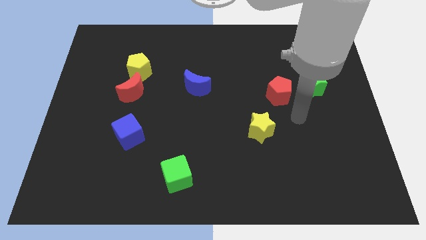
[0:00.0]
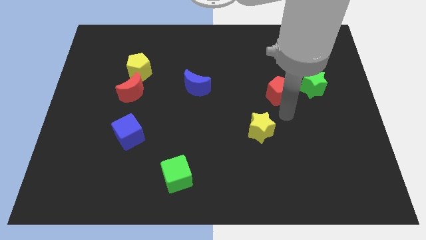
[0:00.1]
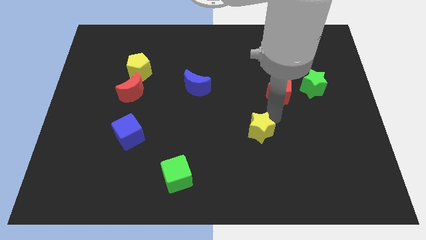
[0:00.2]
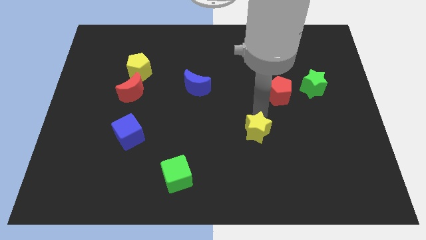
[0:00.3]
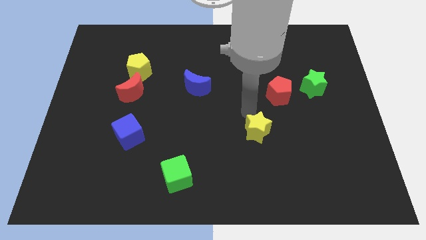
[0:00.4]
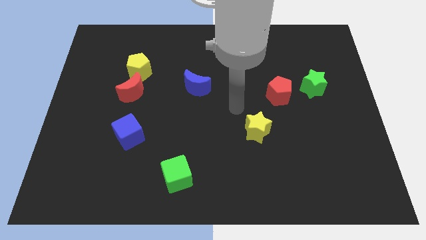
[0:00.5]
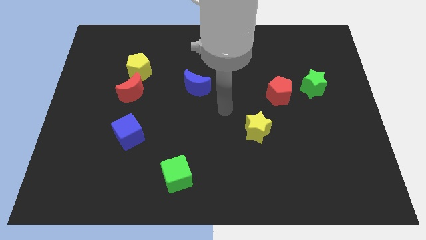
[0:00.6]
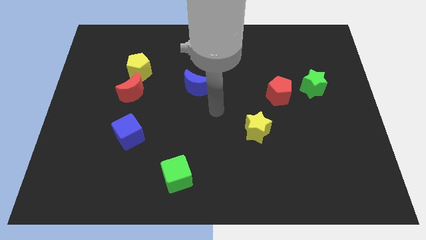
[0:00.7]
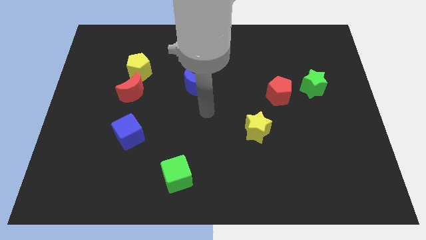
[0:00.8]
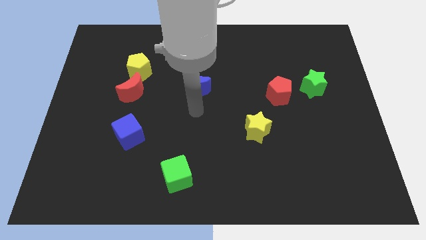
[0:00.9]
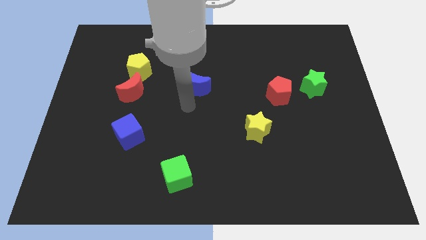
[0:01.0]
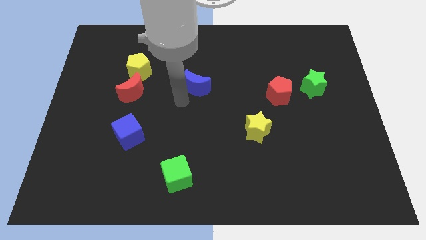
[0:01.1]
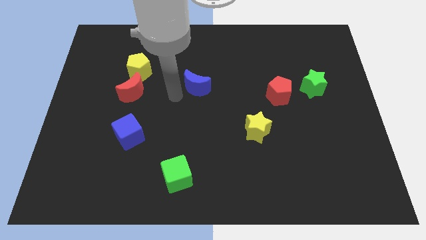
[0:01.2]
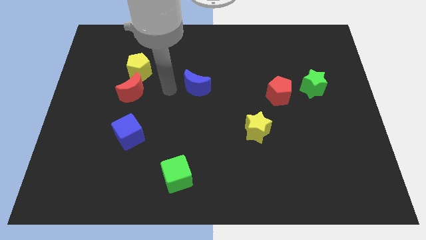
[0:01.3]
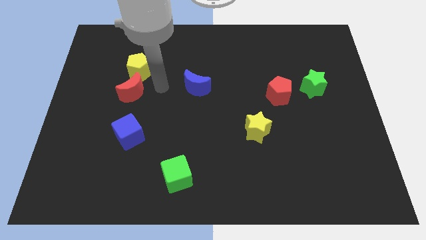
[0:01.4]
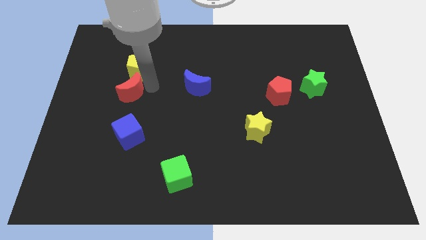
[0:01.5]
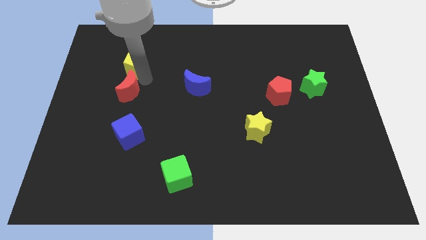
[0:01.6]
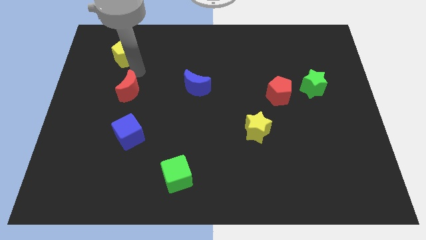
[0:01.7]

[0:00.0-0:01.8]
move the red moon away from the yellow pentagon

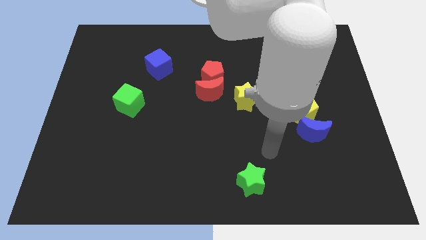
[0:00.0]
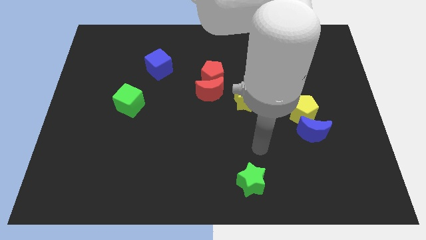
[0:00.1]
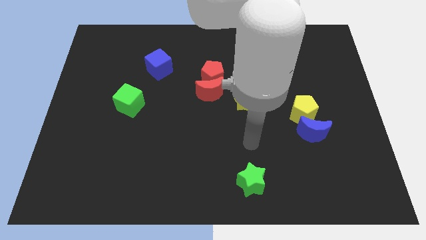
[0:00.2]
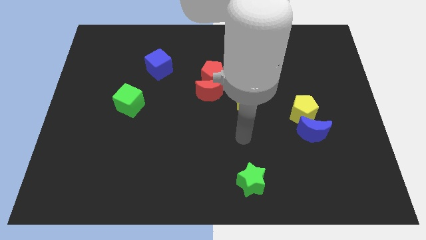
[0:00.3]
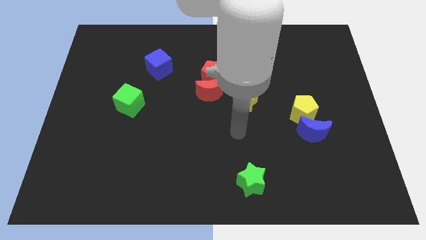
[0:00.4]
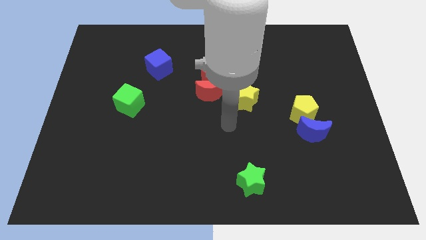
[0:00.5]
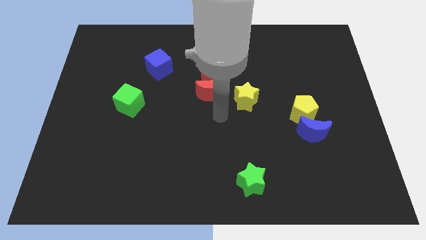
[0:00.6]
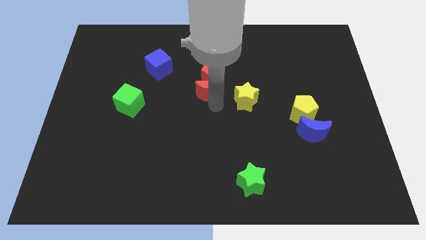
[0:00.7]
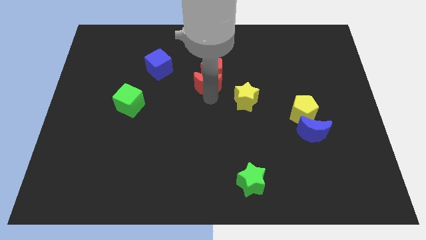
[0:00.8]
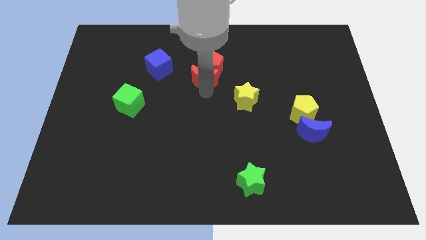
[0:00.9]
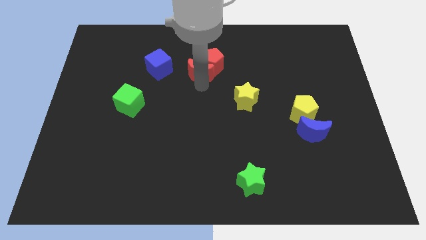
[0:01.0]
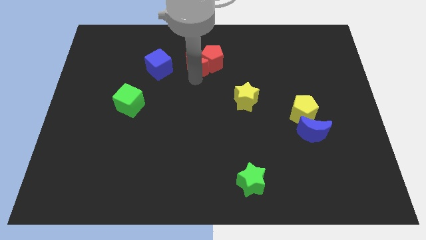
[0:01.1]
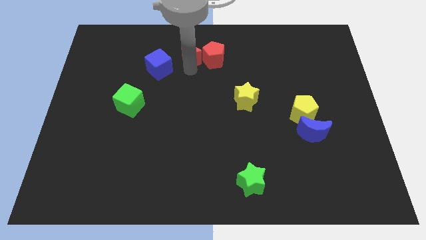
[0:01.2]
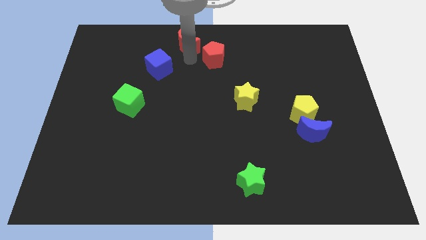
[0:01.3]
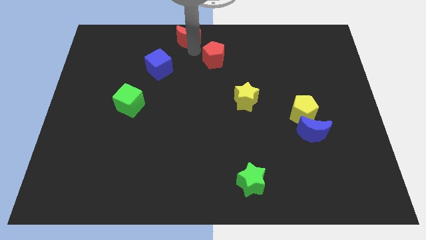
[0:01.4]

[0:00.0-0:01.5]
separate the red pentagon from the red moon

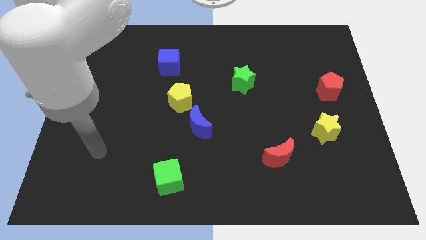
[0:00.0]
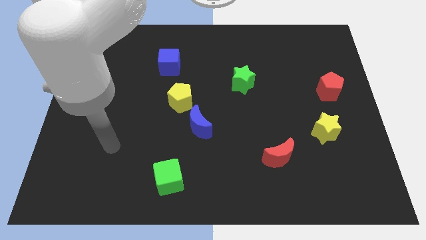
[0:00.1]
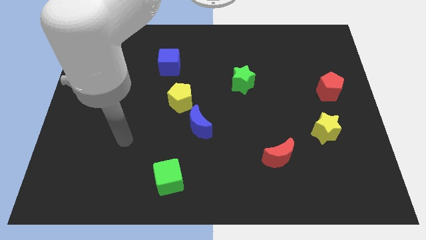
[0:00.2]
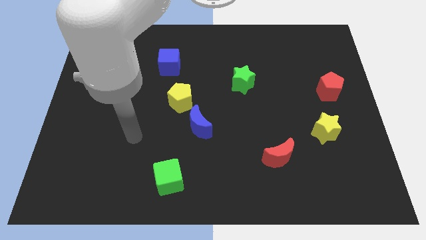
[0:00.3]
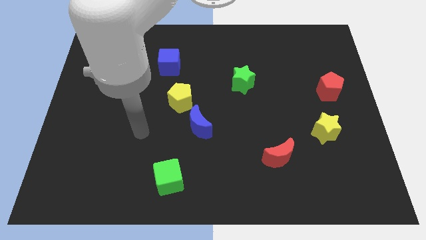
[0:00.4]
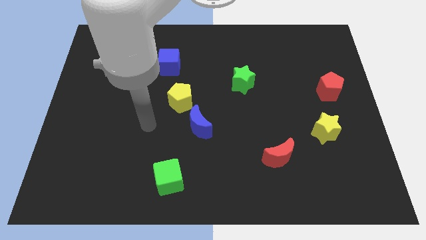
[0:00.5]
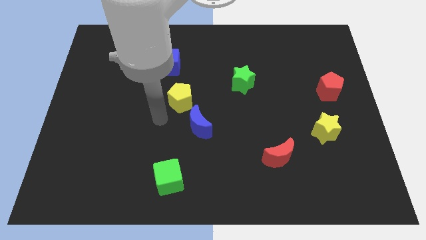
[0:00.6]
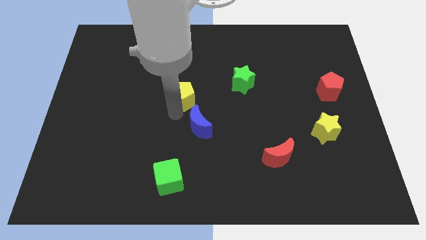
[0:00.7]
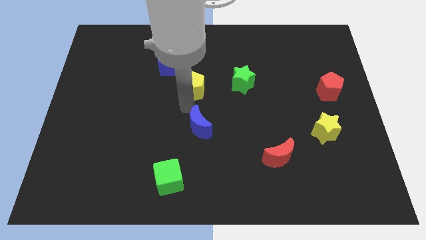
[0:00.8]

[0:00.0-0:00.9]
pull the blue moon apart from the yellow pentagon

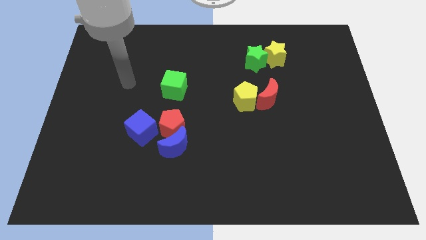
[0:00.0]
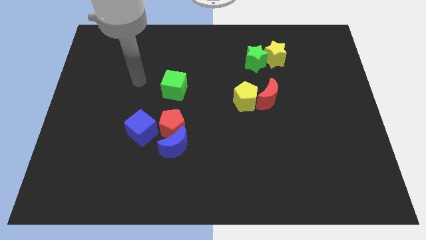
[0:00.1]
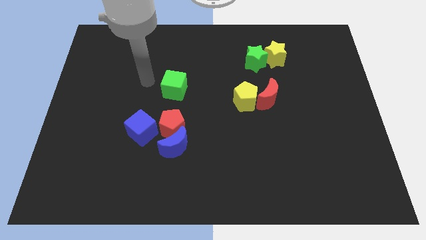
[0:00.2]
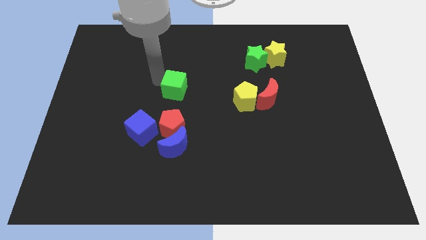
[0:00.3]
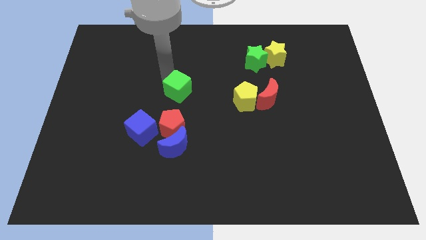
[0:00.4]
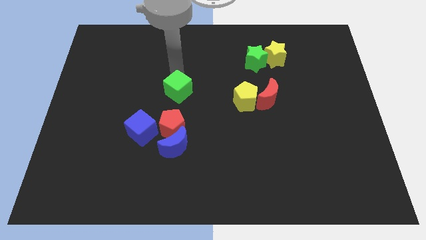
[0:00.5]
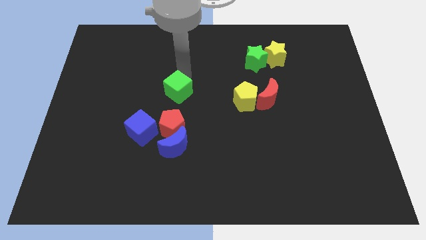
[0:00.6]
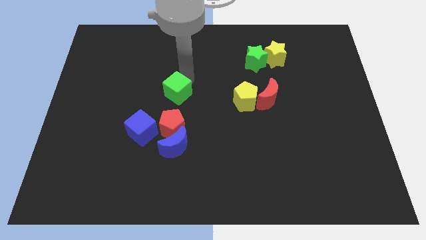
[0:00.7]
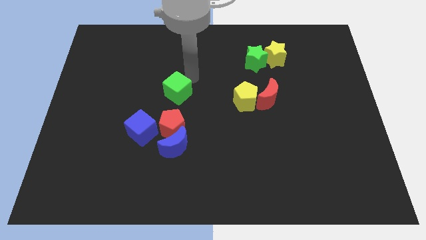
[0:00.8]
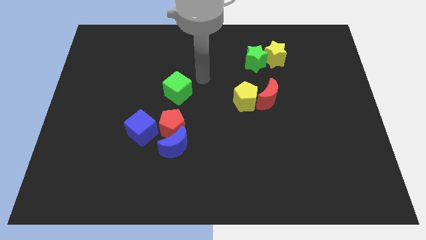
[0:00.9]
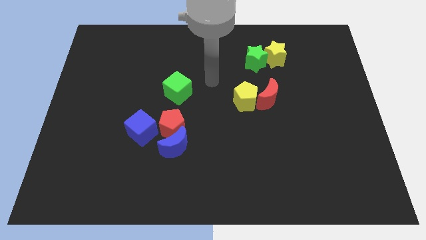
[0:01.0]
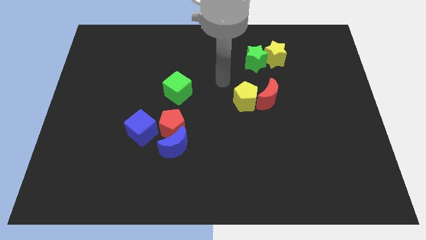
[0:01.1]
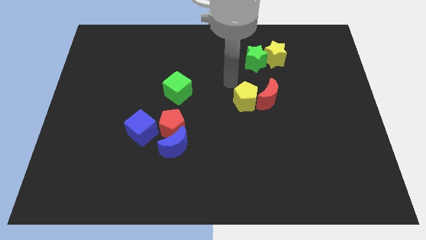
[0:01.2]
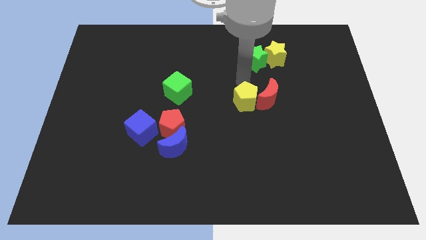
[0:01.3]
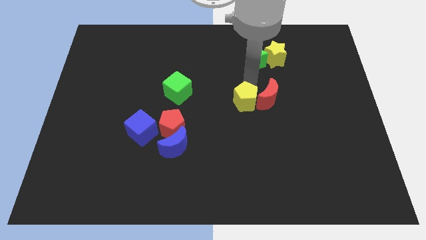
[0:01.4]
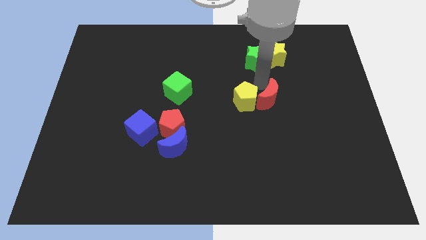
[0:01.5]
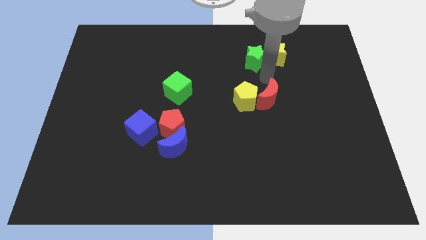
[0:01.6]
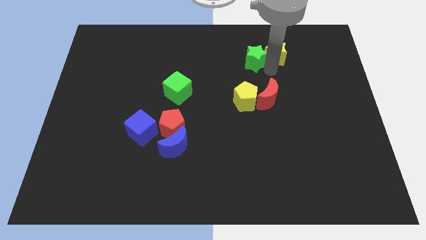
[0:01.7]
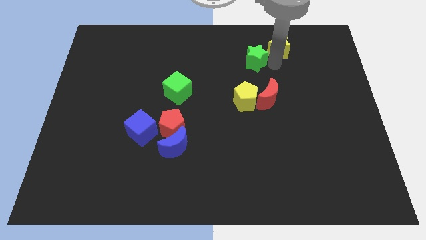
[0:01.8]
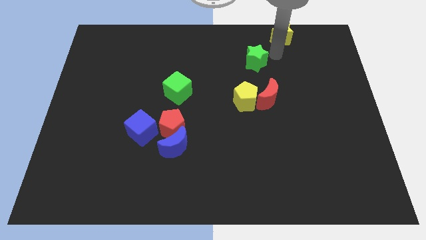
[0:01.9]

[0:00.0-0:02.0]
pull the green star apart from the yellow star

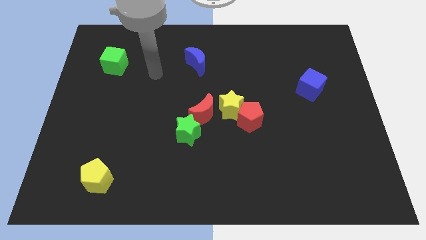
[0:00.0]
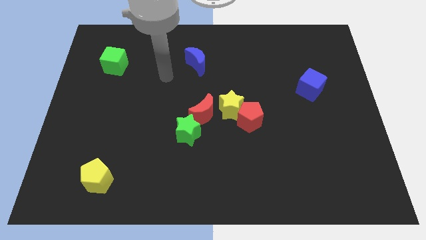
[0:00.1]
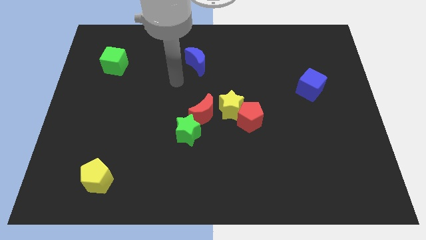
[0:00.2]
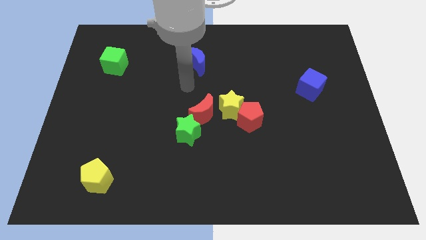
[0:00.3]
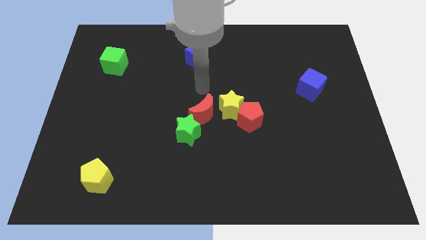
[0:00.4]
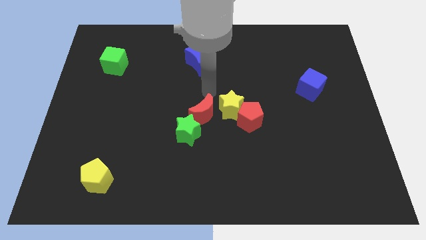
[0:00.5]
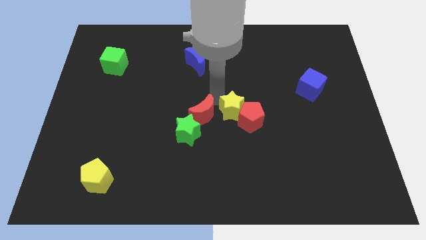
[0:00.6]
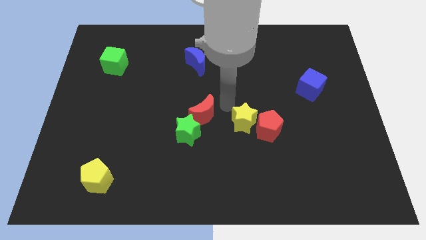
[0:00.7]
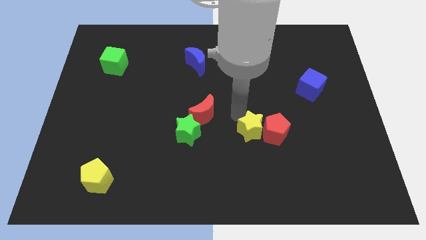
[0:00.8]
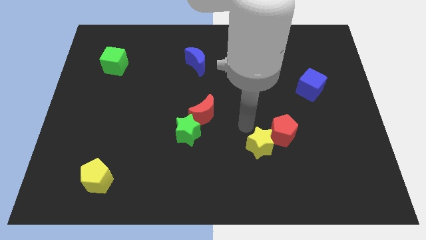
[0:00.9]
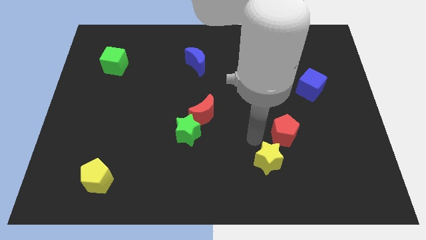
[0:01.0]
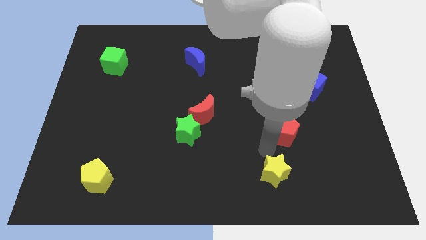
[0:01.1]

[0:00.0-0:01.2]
pull the red pentagon apart from the yellow star

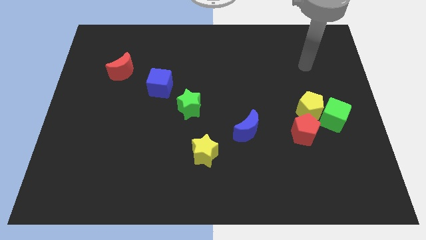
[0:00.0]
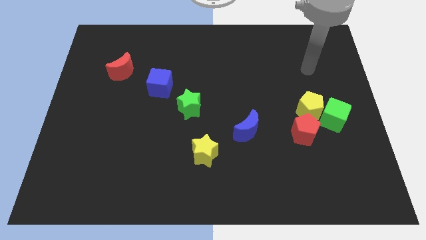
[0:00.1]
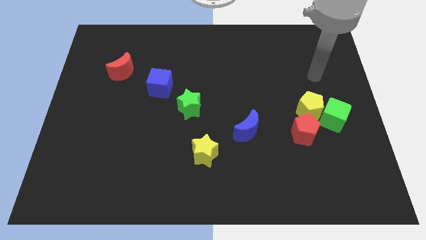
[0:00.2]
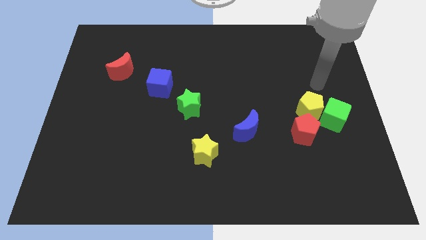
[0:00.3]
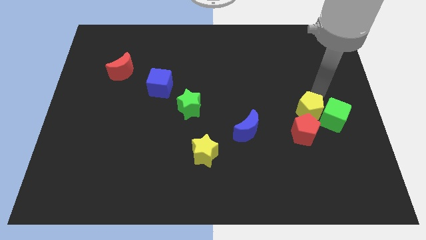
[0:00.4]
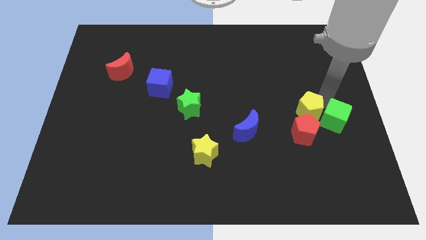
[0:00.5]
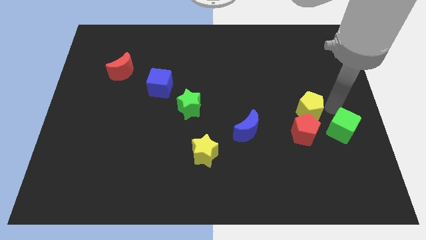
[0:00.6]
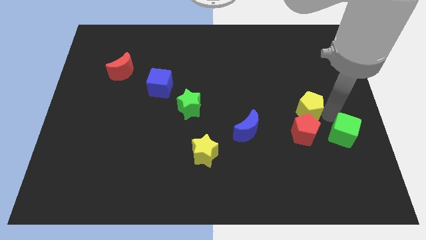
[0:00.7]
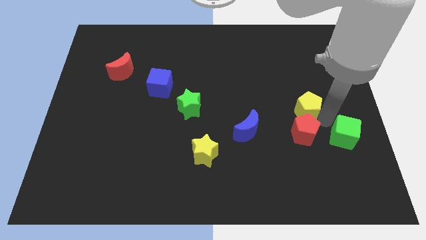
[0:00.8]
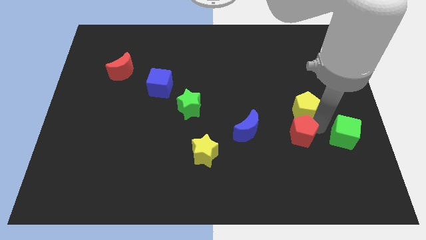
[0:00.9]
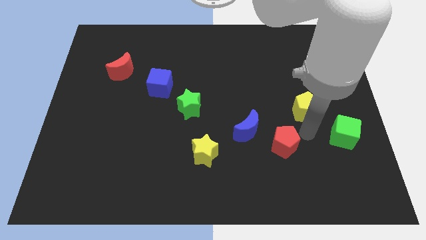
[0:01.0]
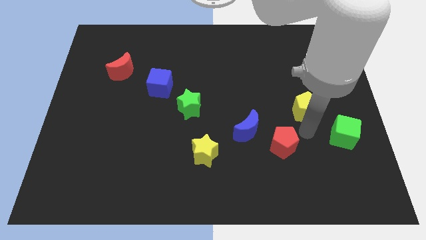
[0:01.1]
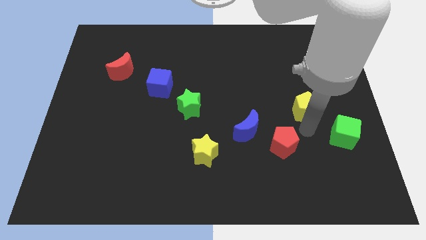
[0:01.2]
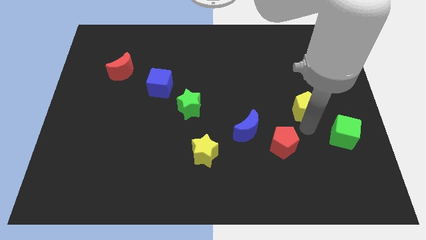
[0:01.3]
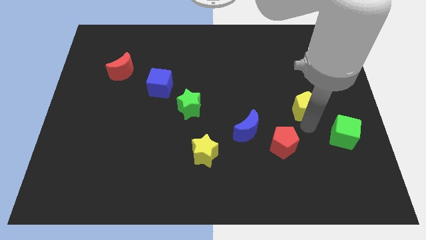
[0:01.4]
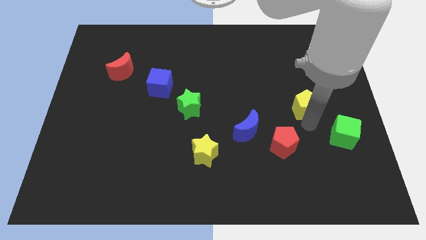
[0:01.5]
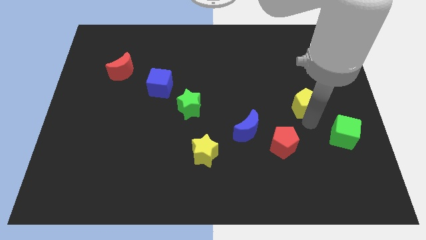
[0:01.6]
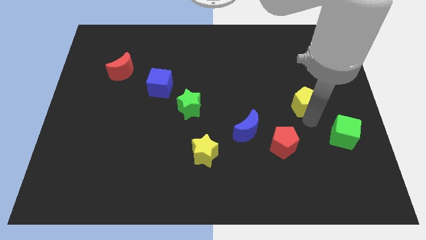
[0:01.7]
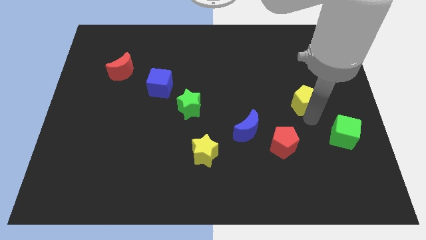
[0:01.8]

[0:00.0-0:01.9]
move the yellow pentagon away from the green cube and red pentagon

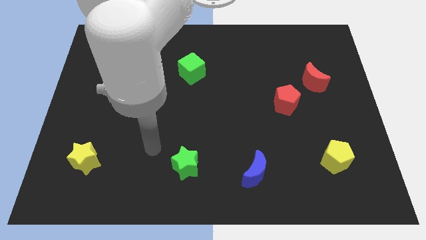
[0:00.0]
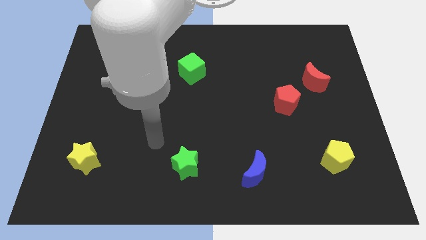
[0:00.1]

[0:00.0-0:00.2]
separate the red moon from the red pentagon
